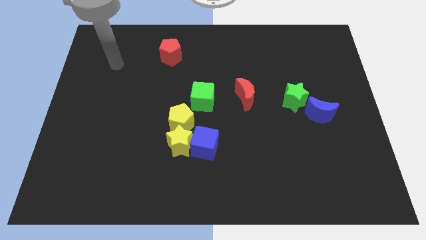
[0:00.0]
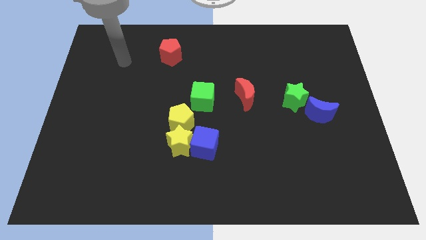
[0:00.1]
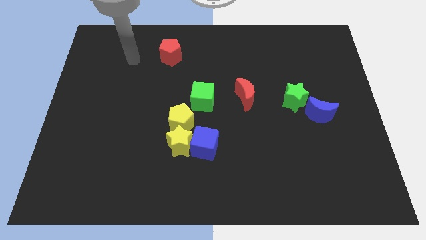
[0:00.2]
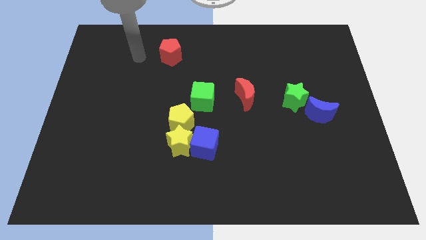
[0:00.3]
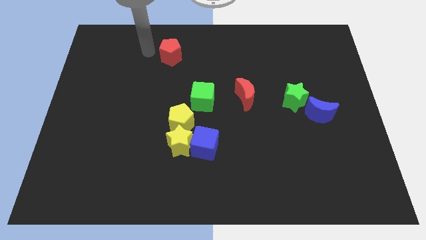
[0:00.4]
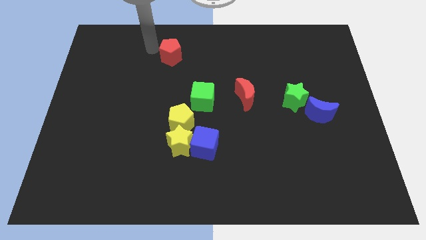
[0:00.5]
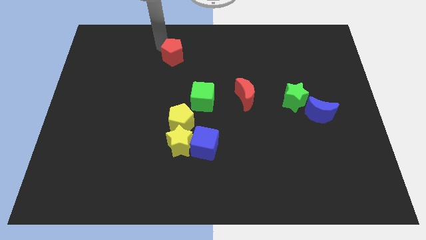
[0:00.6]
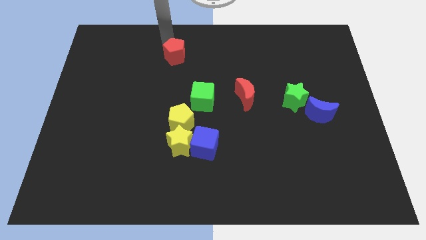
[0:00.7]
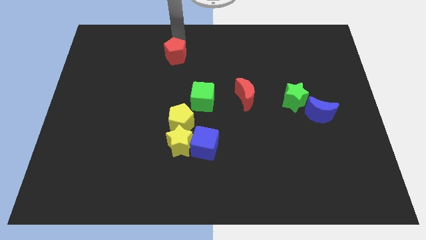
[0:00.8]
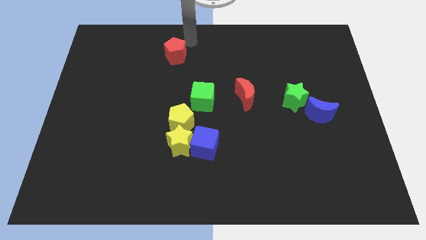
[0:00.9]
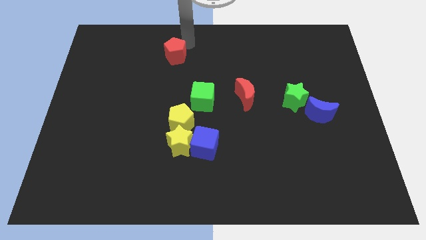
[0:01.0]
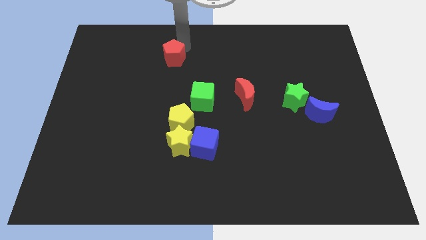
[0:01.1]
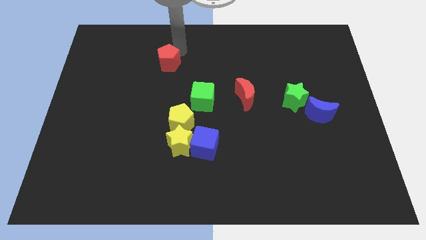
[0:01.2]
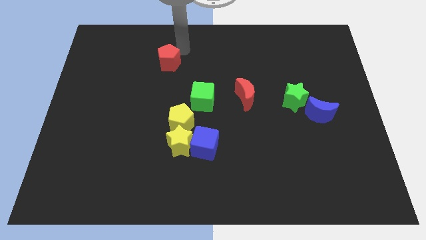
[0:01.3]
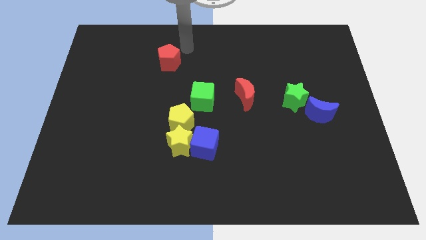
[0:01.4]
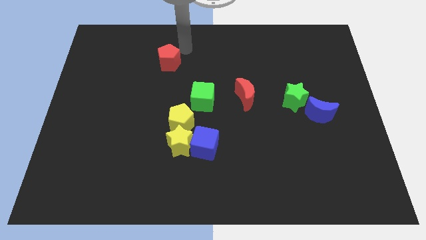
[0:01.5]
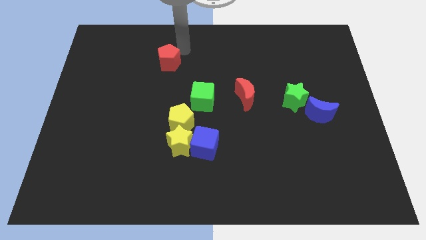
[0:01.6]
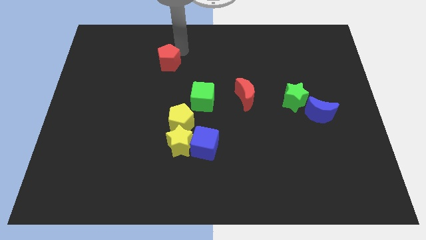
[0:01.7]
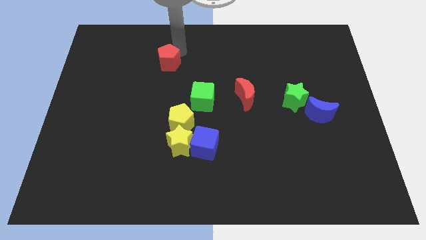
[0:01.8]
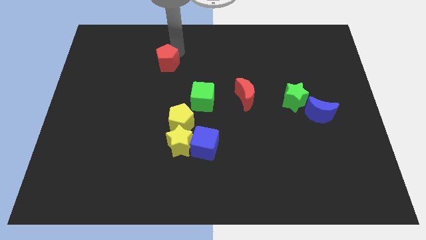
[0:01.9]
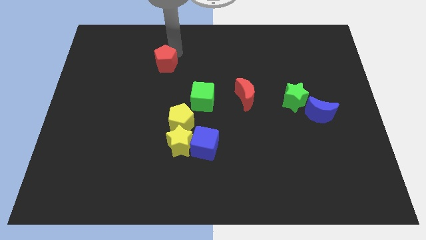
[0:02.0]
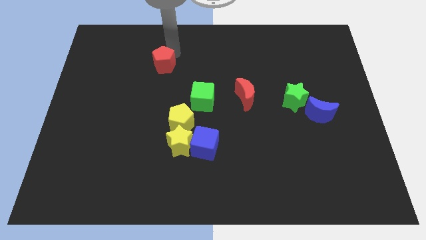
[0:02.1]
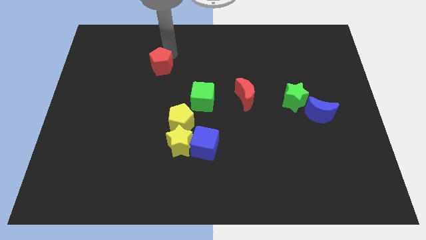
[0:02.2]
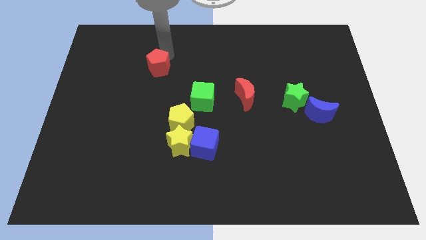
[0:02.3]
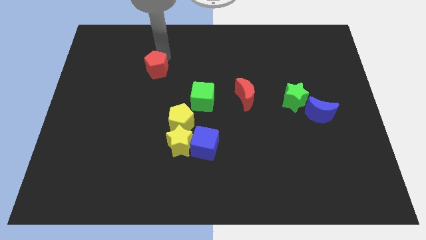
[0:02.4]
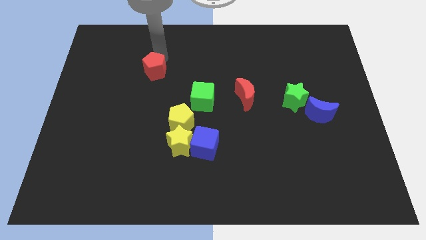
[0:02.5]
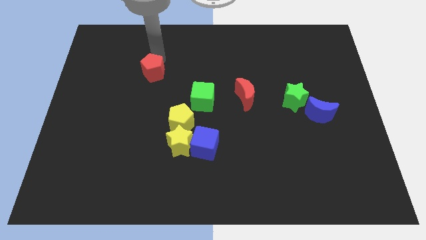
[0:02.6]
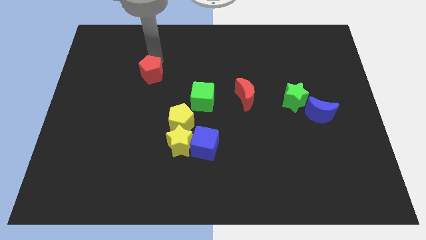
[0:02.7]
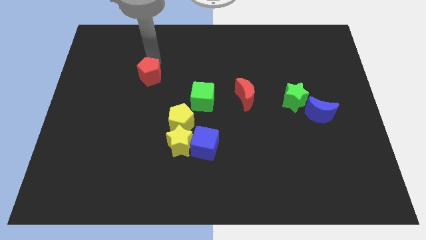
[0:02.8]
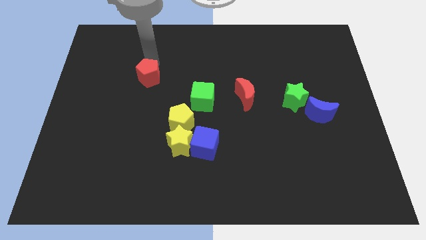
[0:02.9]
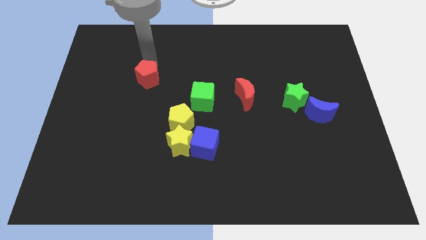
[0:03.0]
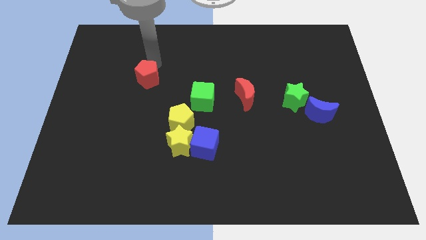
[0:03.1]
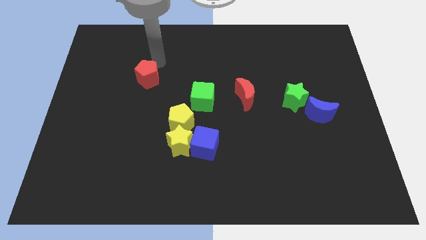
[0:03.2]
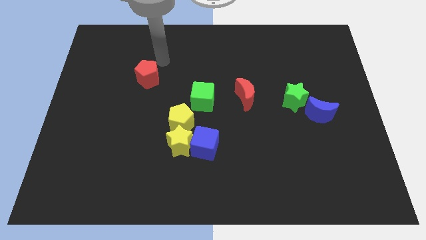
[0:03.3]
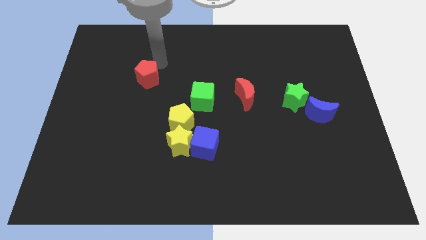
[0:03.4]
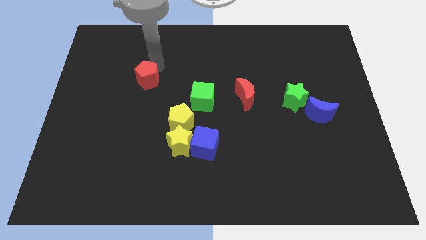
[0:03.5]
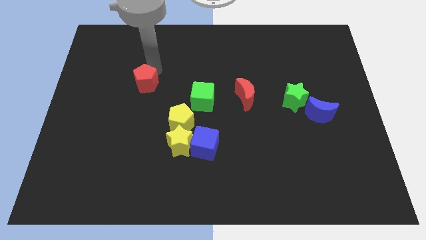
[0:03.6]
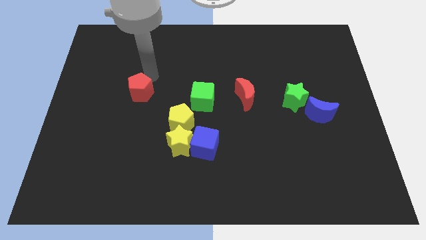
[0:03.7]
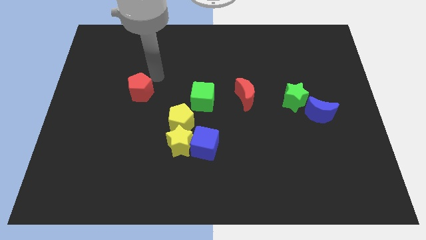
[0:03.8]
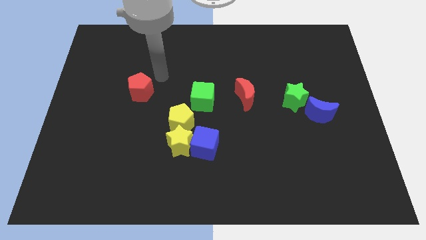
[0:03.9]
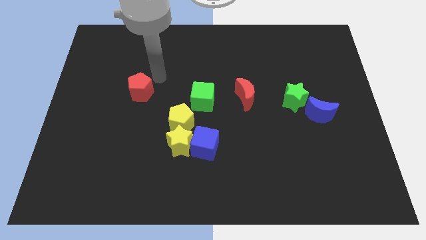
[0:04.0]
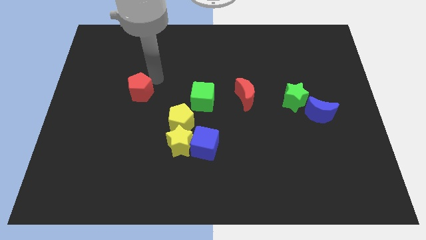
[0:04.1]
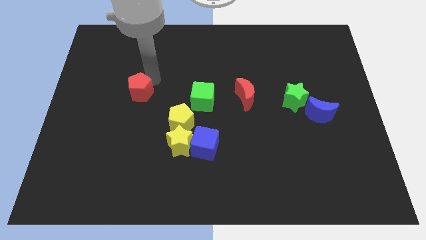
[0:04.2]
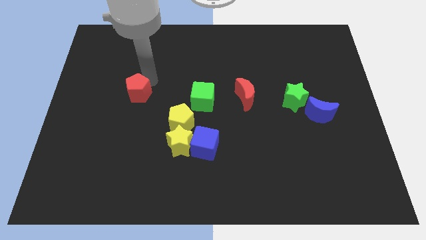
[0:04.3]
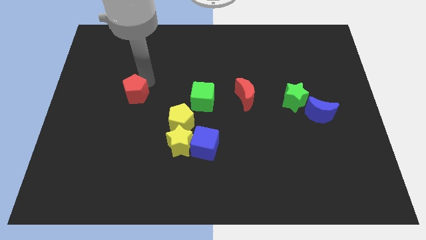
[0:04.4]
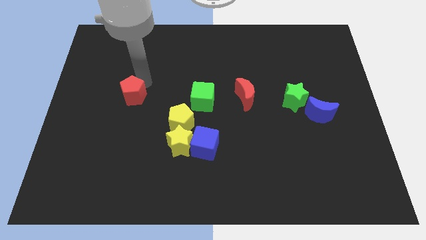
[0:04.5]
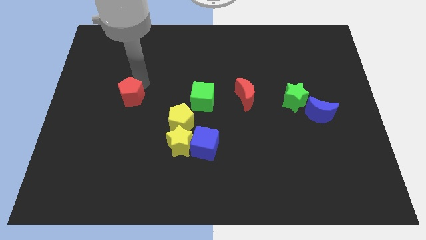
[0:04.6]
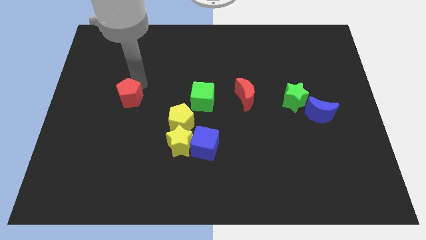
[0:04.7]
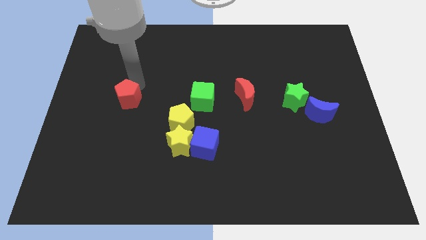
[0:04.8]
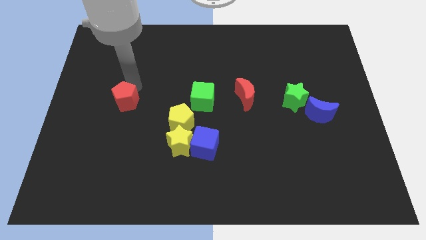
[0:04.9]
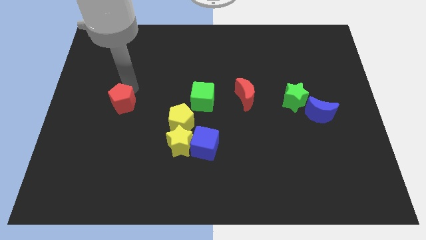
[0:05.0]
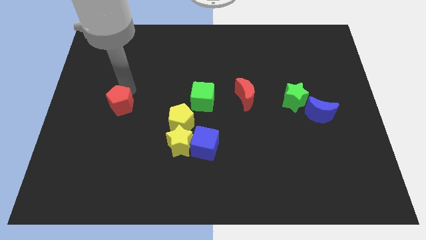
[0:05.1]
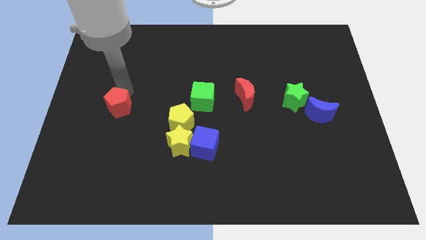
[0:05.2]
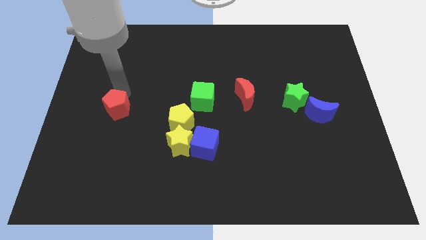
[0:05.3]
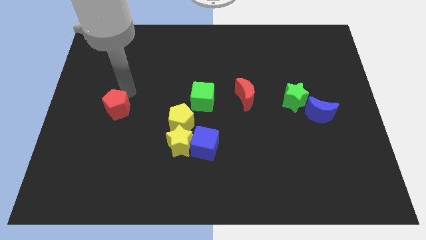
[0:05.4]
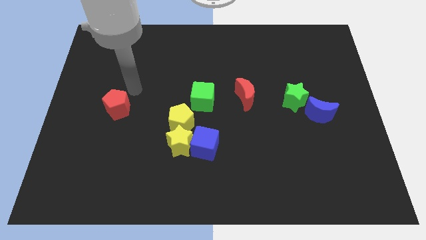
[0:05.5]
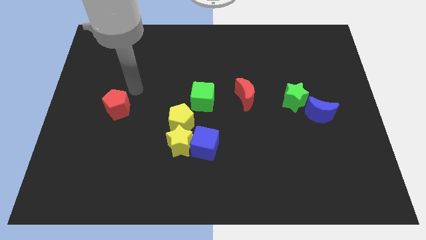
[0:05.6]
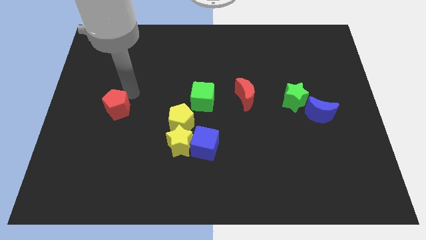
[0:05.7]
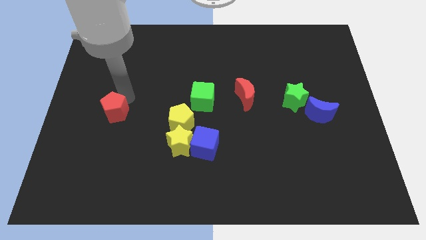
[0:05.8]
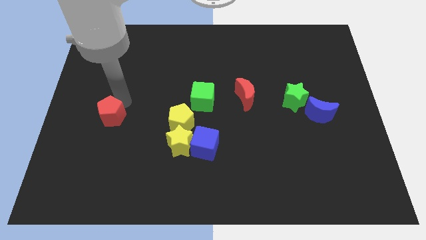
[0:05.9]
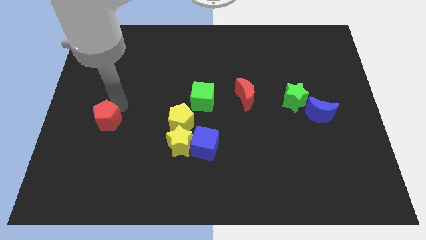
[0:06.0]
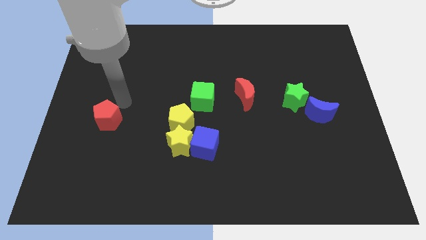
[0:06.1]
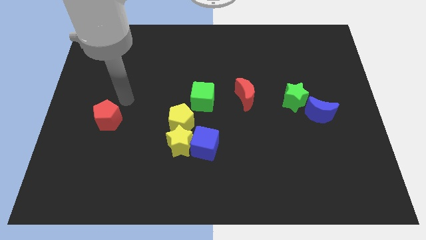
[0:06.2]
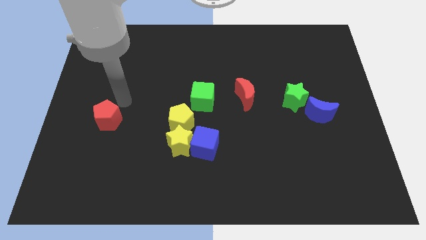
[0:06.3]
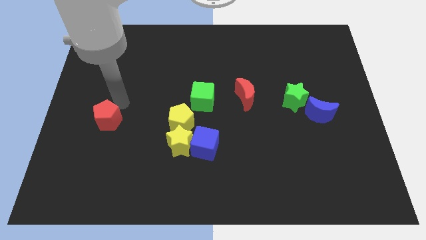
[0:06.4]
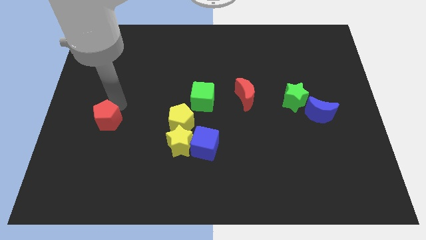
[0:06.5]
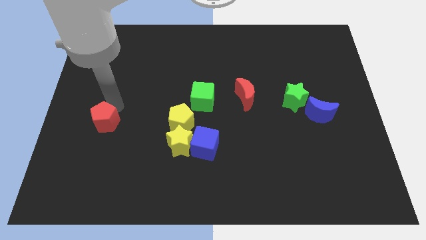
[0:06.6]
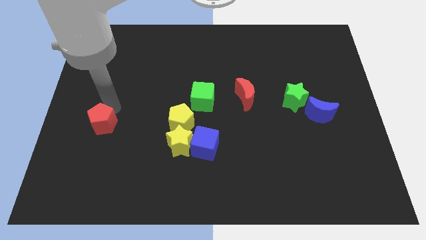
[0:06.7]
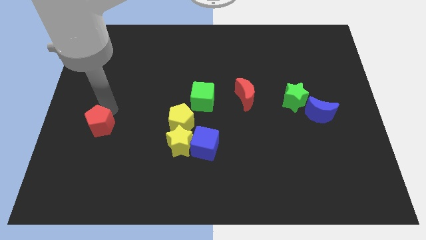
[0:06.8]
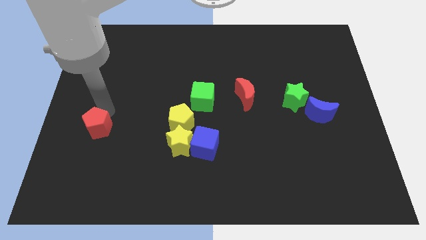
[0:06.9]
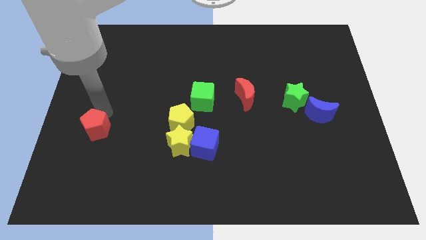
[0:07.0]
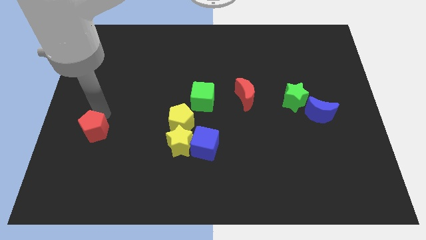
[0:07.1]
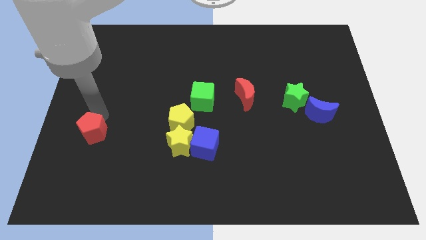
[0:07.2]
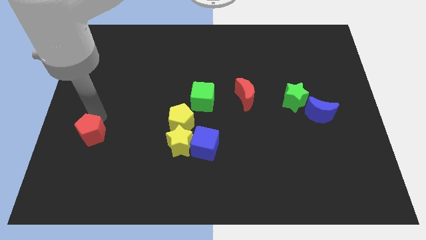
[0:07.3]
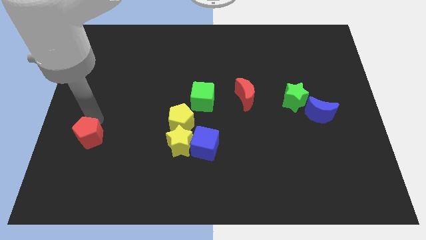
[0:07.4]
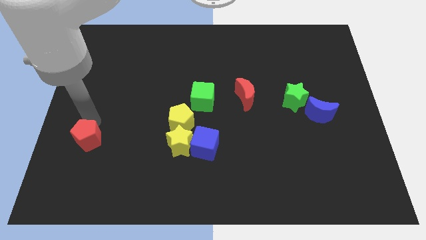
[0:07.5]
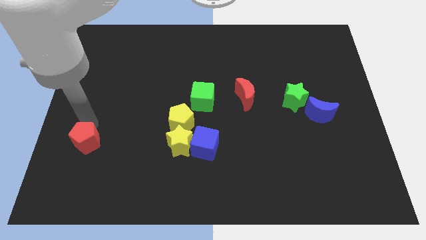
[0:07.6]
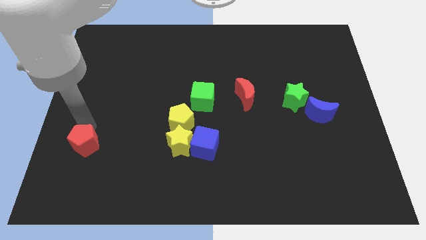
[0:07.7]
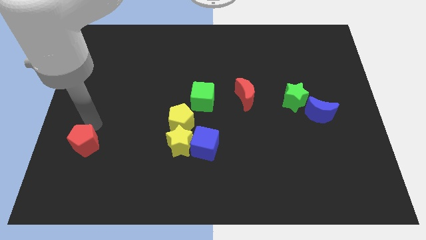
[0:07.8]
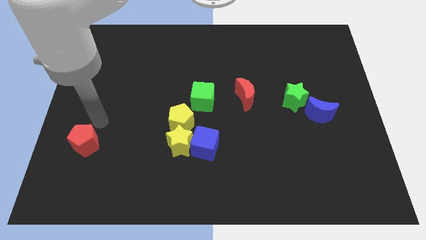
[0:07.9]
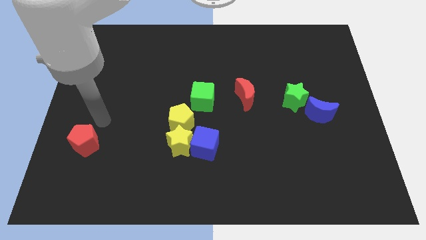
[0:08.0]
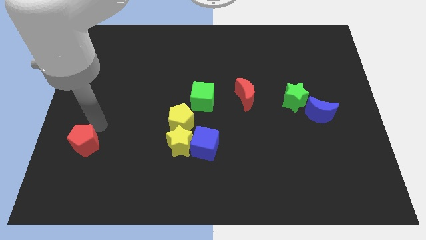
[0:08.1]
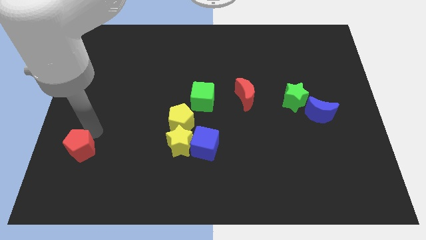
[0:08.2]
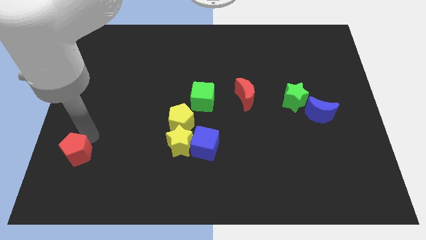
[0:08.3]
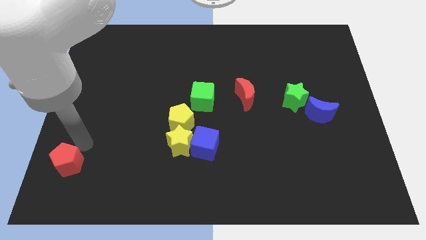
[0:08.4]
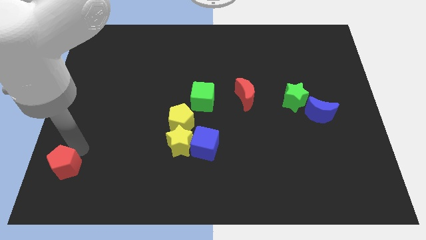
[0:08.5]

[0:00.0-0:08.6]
move the red pentagon to the lower left corner
